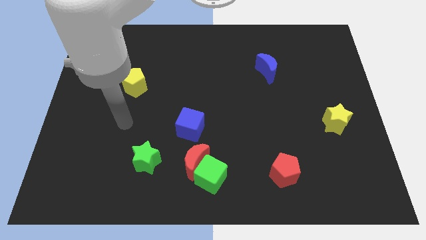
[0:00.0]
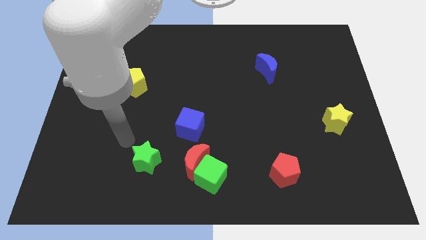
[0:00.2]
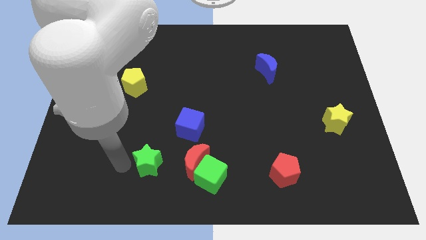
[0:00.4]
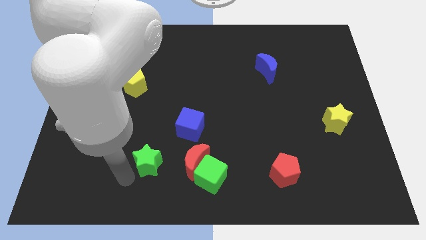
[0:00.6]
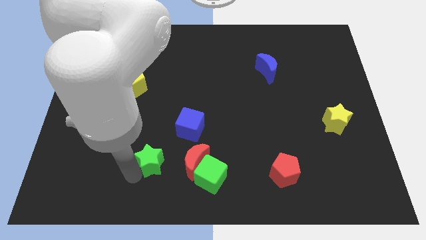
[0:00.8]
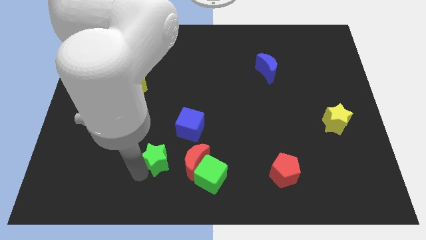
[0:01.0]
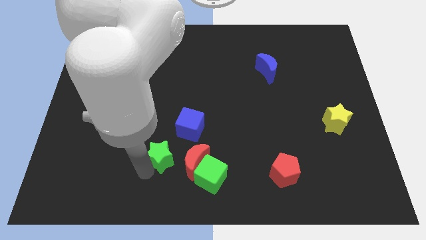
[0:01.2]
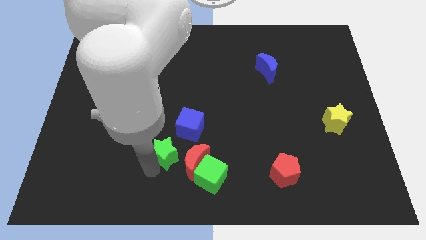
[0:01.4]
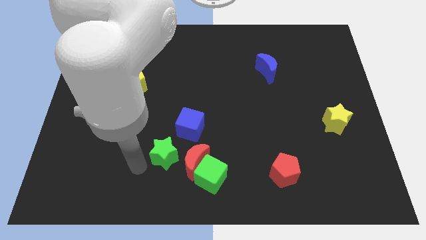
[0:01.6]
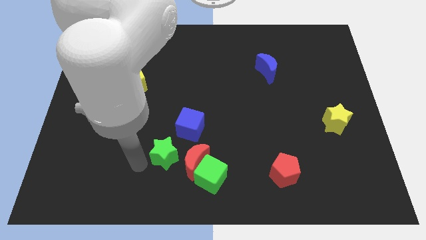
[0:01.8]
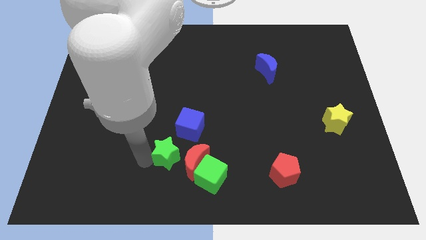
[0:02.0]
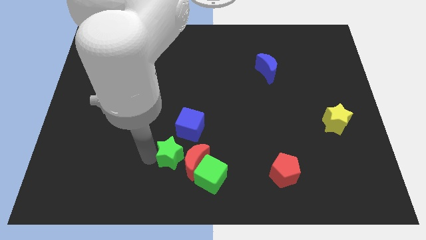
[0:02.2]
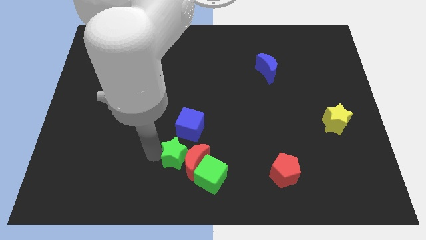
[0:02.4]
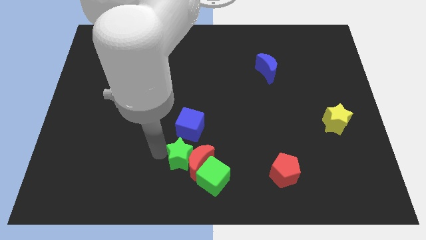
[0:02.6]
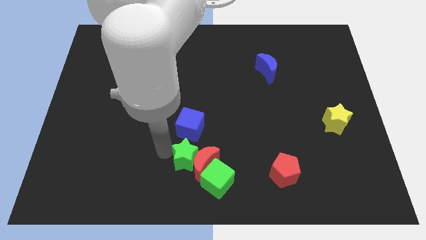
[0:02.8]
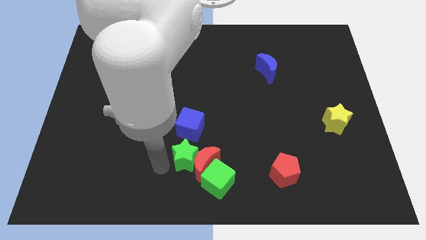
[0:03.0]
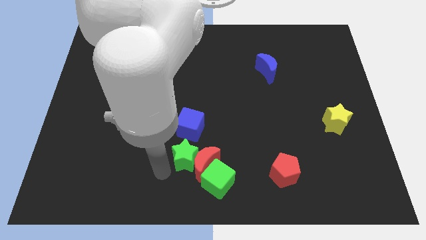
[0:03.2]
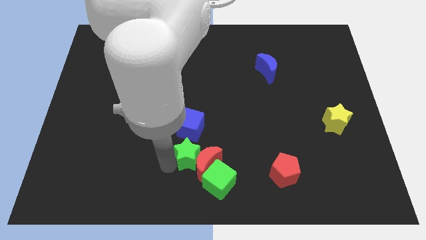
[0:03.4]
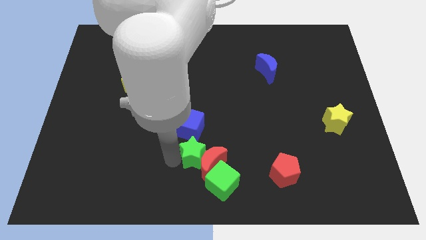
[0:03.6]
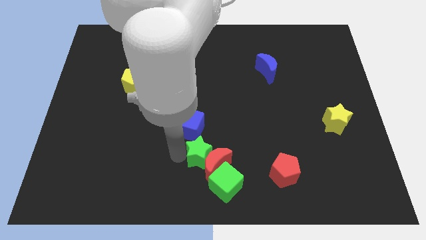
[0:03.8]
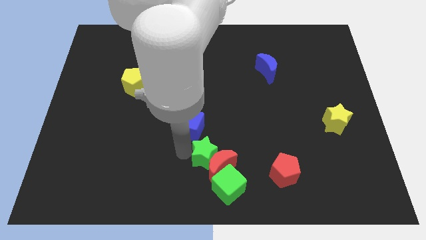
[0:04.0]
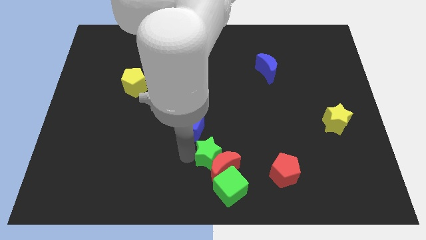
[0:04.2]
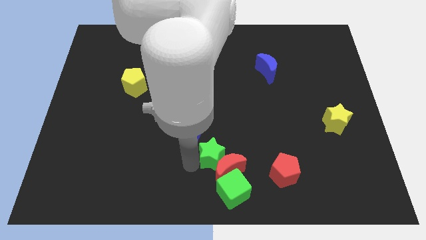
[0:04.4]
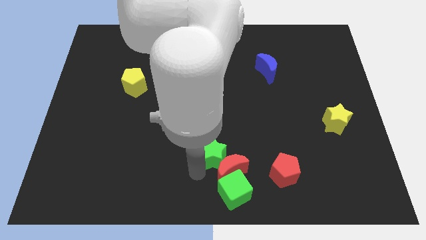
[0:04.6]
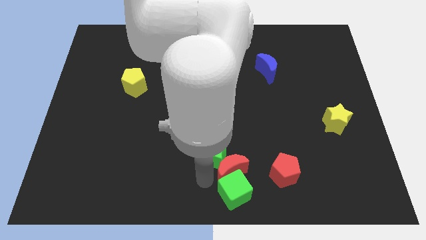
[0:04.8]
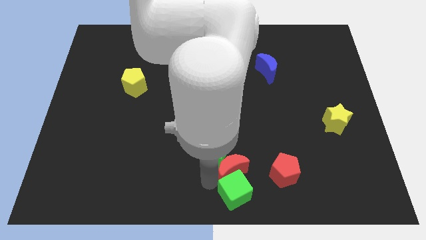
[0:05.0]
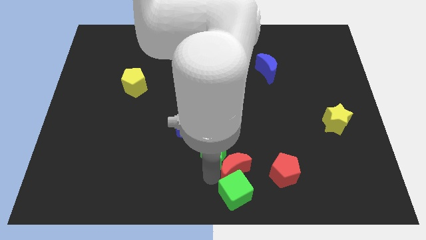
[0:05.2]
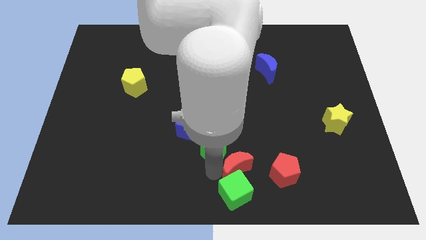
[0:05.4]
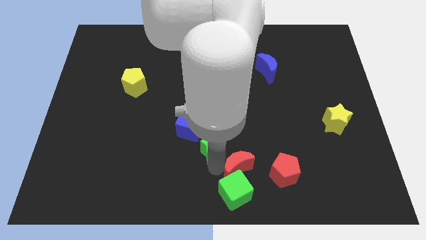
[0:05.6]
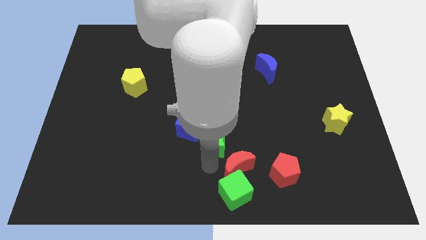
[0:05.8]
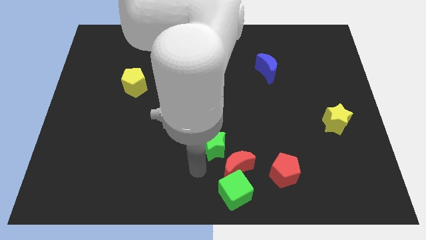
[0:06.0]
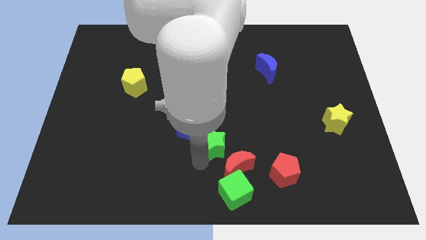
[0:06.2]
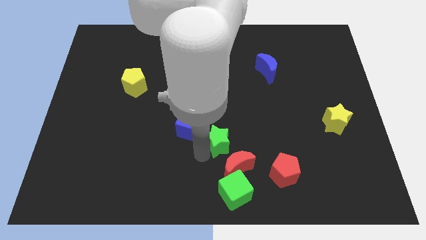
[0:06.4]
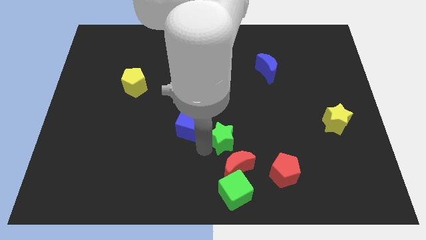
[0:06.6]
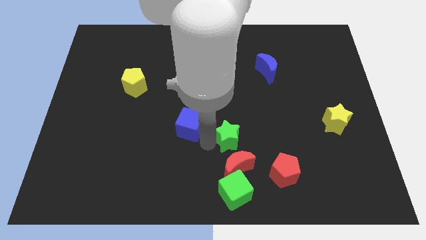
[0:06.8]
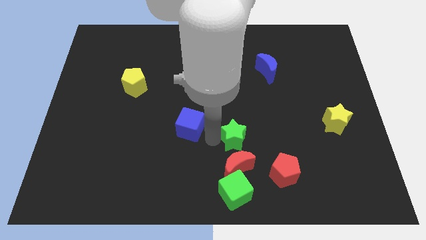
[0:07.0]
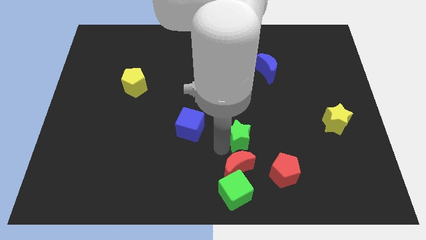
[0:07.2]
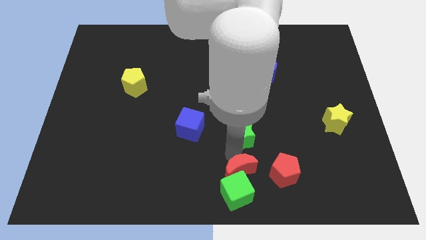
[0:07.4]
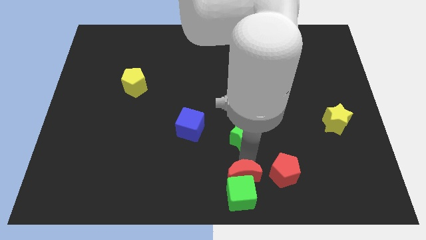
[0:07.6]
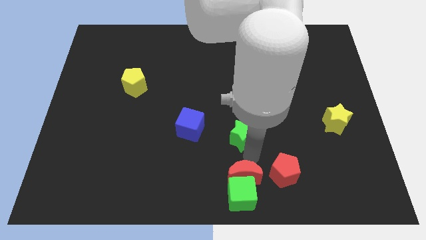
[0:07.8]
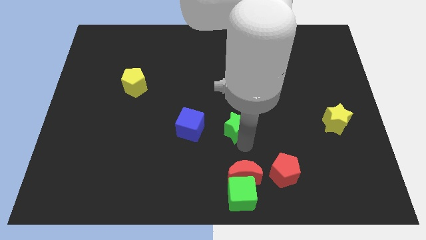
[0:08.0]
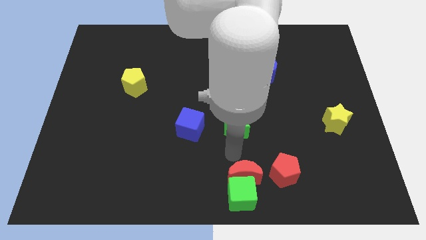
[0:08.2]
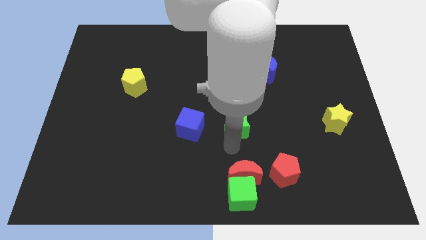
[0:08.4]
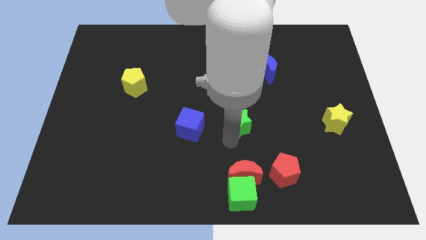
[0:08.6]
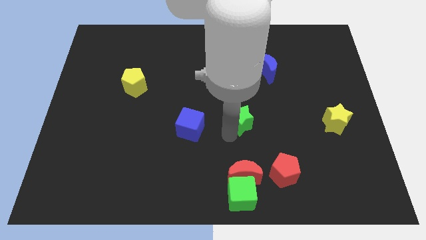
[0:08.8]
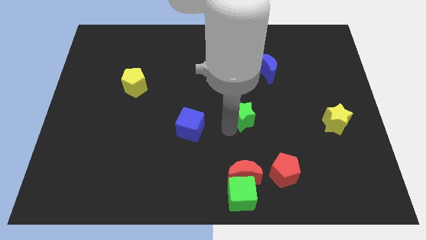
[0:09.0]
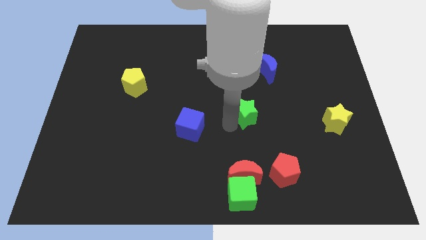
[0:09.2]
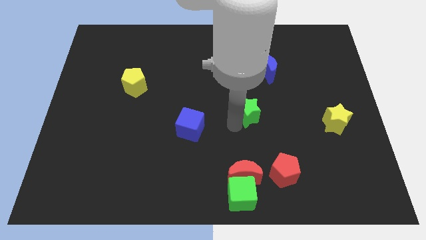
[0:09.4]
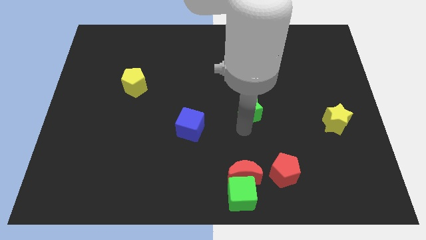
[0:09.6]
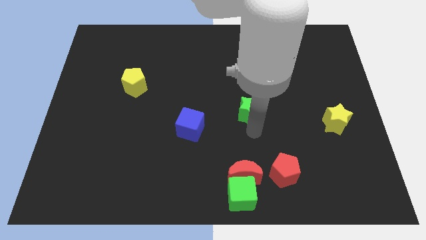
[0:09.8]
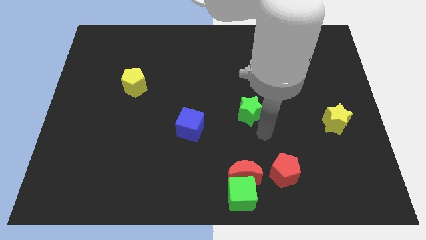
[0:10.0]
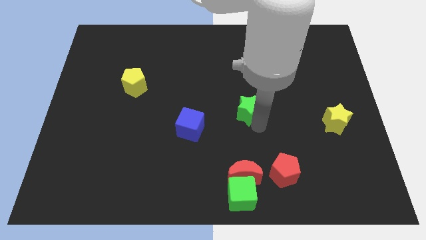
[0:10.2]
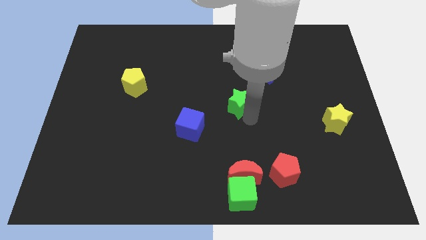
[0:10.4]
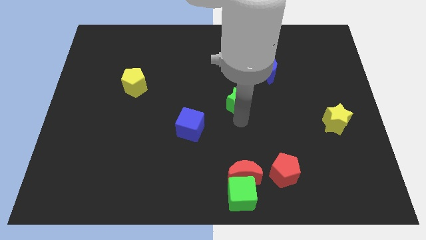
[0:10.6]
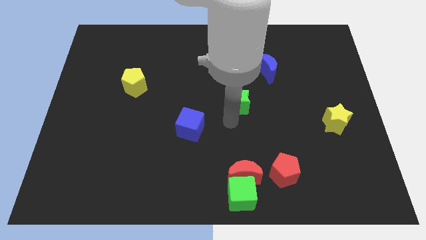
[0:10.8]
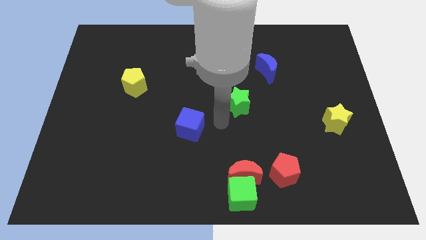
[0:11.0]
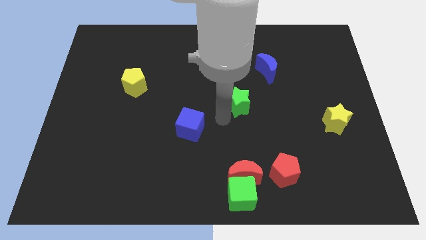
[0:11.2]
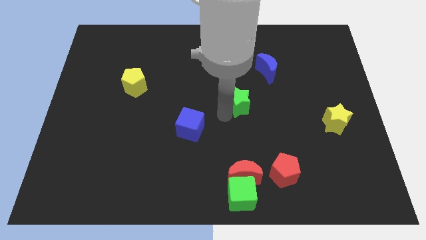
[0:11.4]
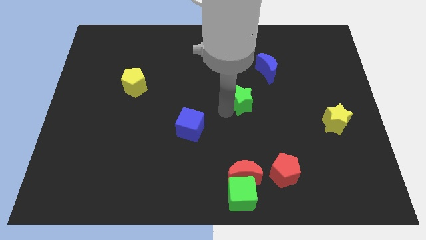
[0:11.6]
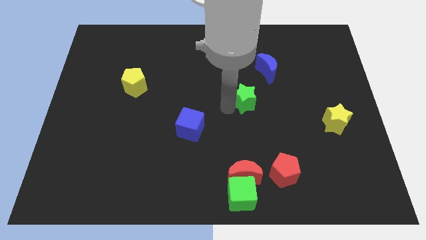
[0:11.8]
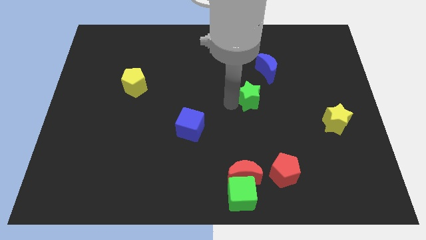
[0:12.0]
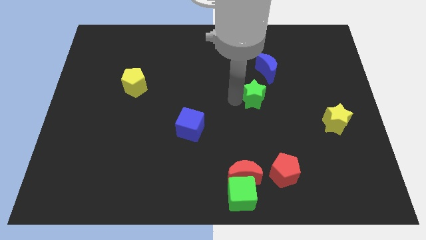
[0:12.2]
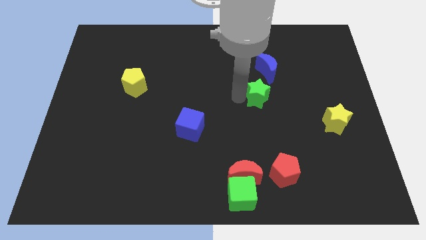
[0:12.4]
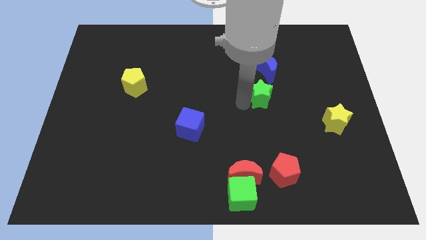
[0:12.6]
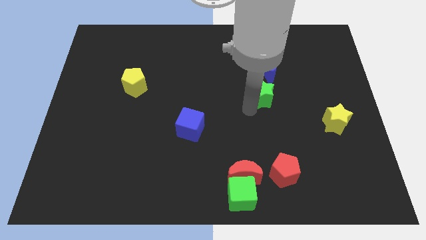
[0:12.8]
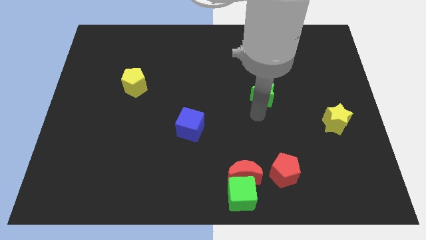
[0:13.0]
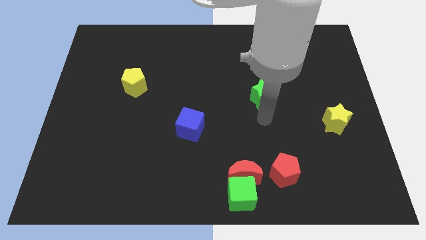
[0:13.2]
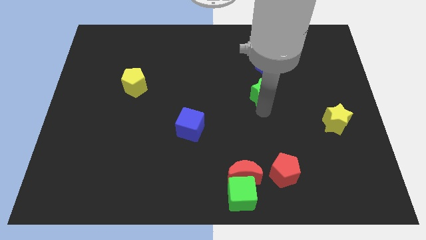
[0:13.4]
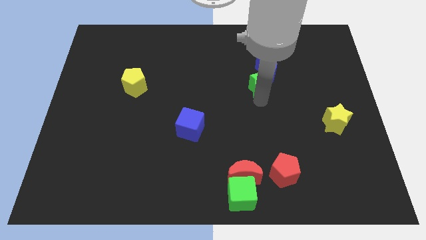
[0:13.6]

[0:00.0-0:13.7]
slide the green star to the blue moon
